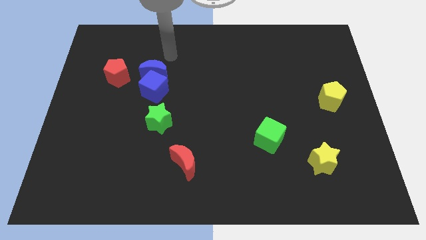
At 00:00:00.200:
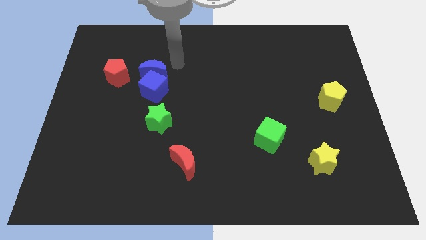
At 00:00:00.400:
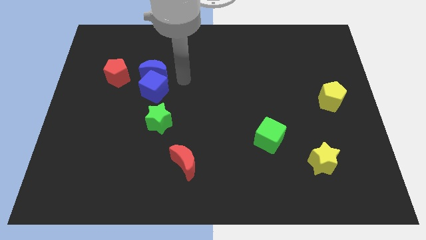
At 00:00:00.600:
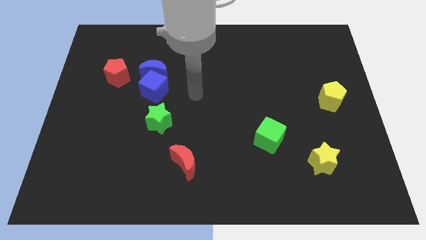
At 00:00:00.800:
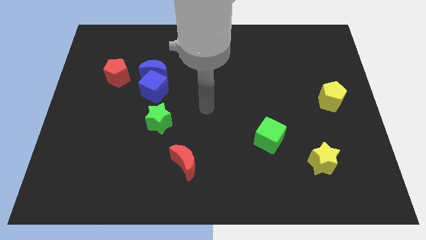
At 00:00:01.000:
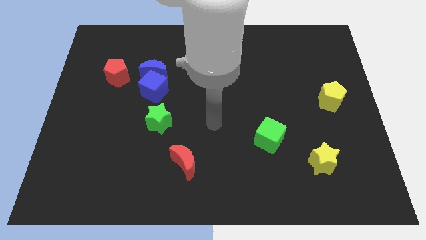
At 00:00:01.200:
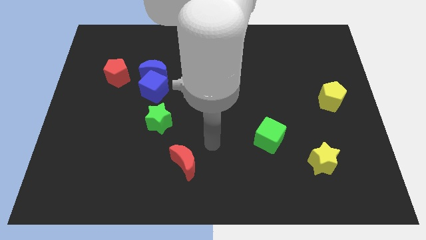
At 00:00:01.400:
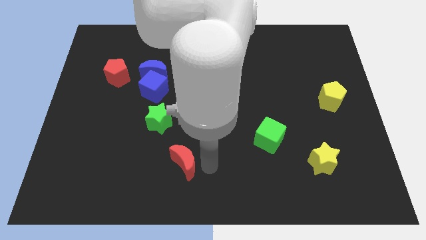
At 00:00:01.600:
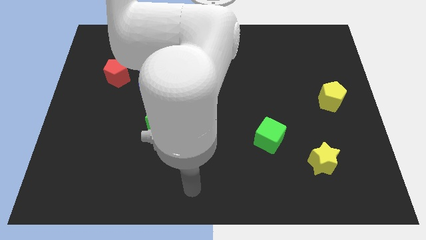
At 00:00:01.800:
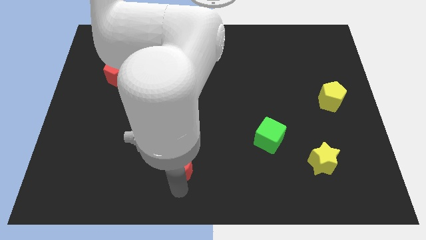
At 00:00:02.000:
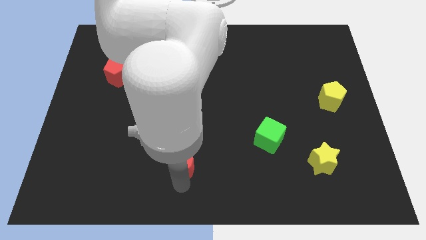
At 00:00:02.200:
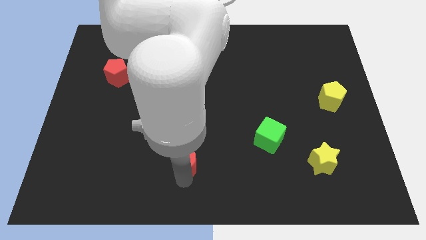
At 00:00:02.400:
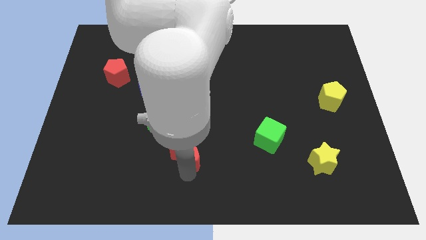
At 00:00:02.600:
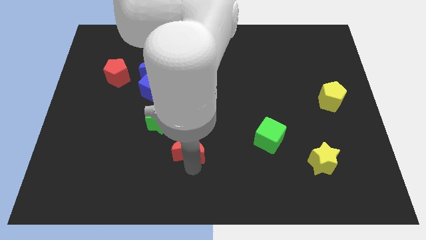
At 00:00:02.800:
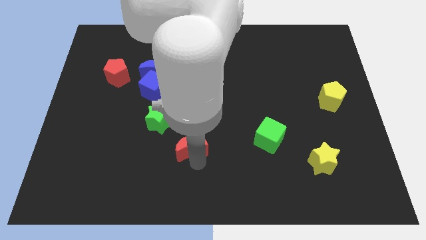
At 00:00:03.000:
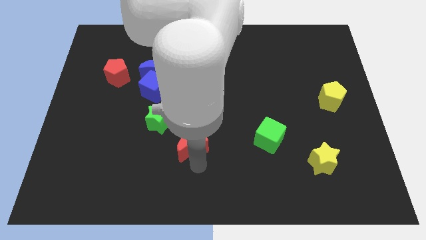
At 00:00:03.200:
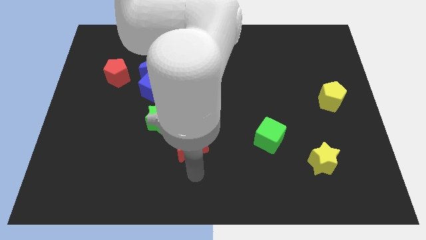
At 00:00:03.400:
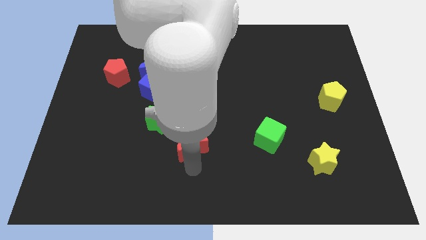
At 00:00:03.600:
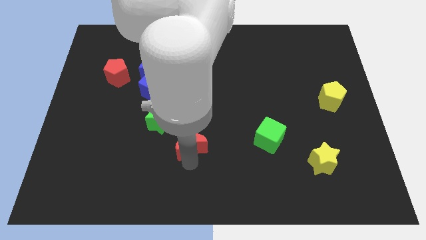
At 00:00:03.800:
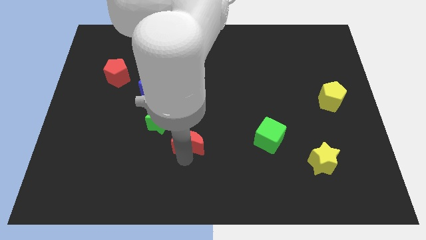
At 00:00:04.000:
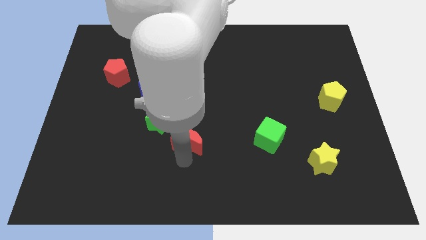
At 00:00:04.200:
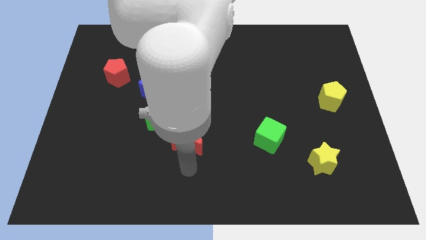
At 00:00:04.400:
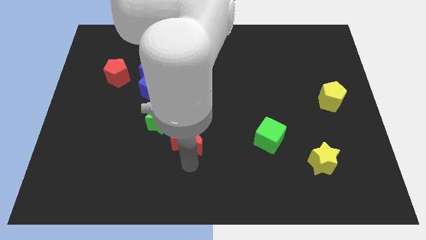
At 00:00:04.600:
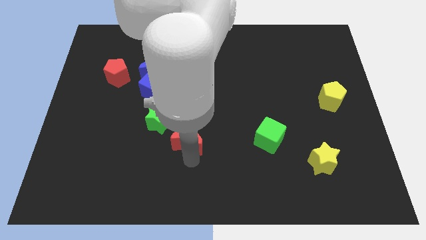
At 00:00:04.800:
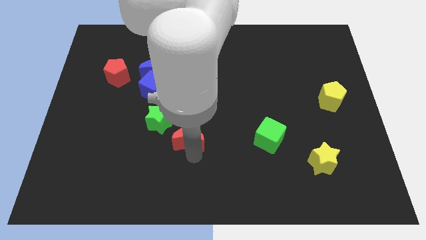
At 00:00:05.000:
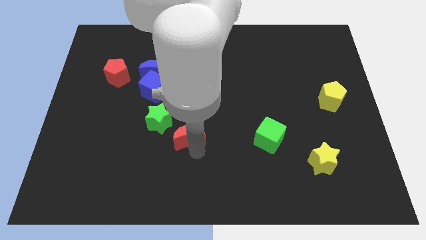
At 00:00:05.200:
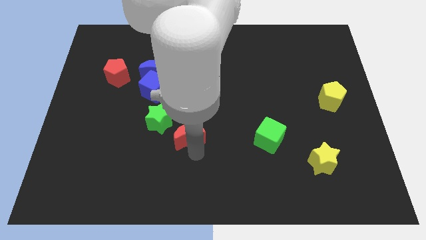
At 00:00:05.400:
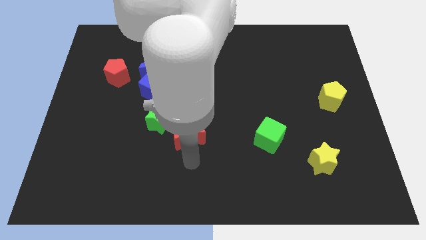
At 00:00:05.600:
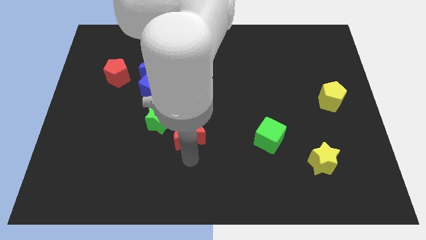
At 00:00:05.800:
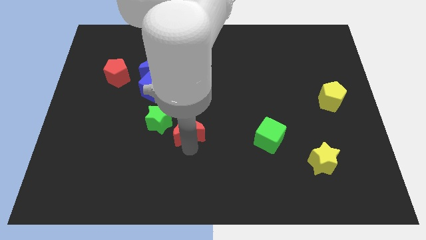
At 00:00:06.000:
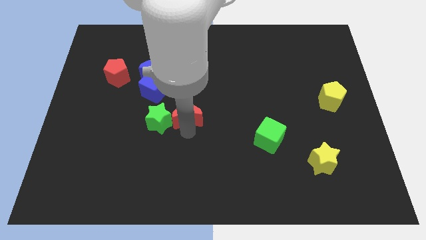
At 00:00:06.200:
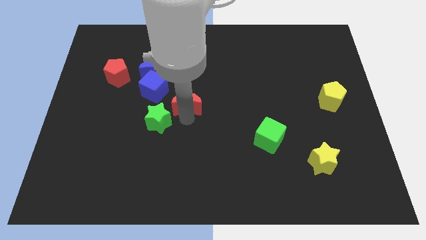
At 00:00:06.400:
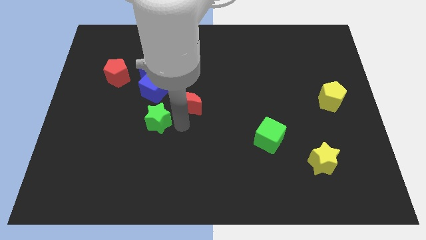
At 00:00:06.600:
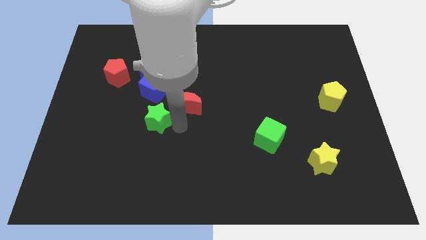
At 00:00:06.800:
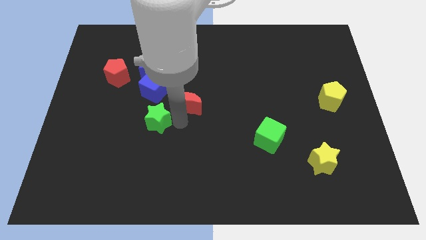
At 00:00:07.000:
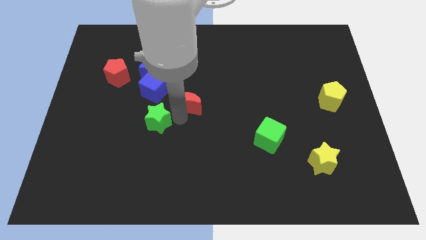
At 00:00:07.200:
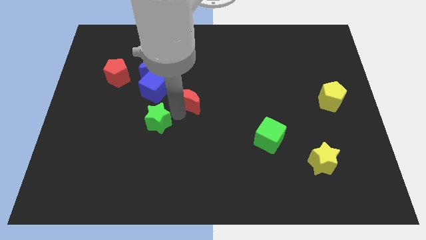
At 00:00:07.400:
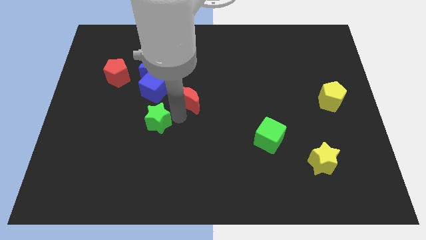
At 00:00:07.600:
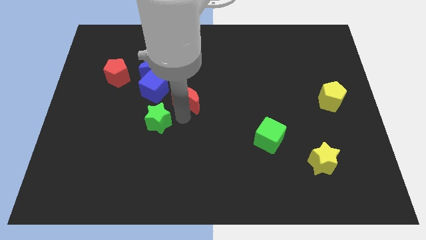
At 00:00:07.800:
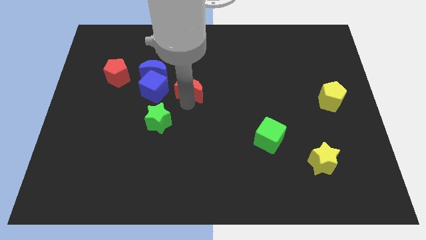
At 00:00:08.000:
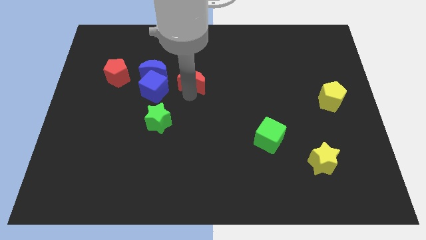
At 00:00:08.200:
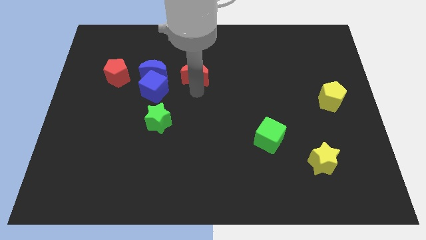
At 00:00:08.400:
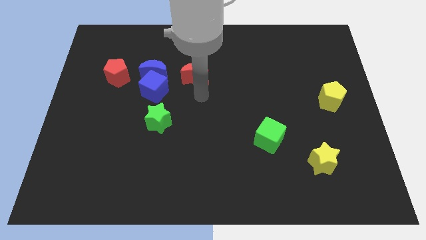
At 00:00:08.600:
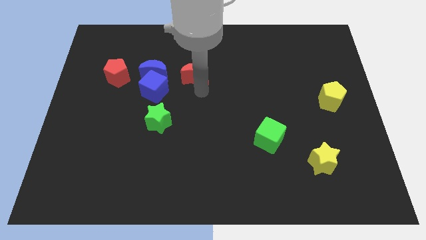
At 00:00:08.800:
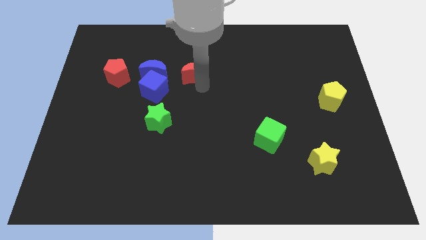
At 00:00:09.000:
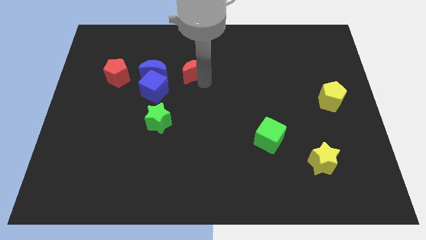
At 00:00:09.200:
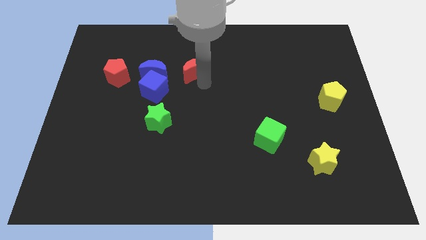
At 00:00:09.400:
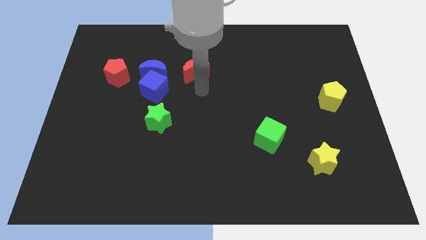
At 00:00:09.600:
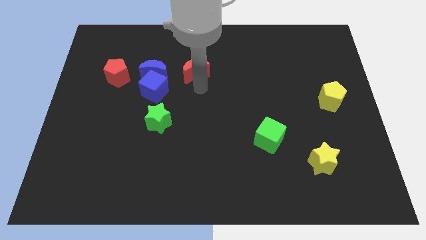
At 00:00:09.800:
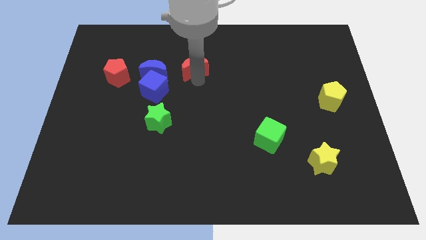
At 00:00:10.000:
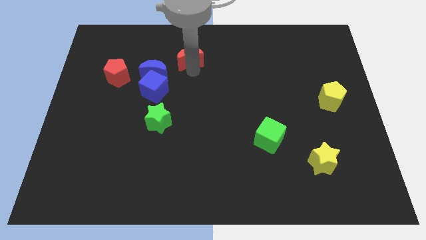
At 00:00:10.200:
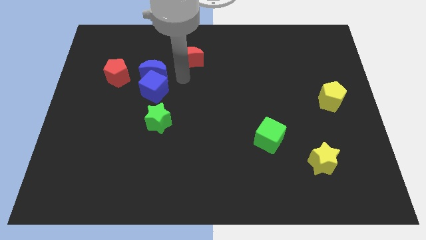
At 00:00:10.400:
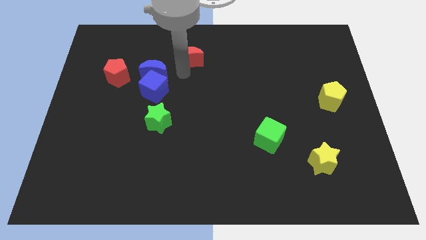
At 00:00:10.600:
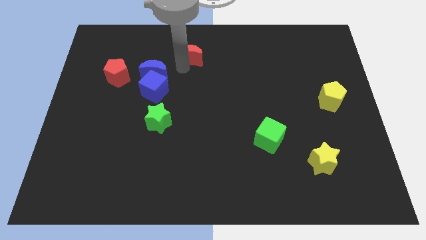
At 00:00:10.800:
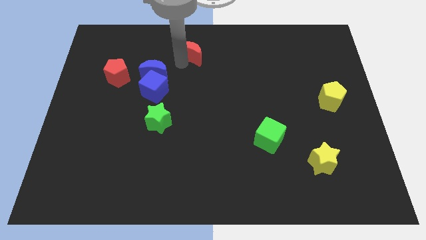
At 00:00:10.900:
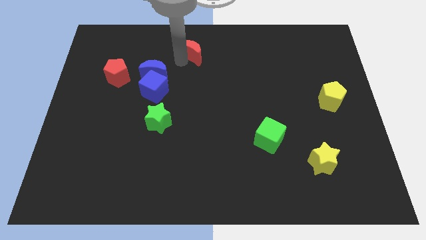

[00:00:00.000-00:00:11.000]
push the red moon to the towards your base

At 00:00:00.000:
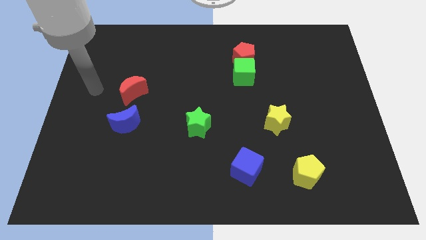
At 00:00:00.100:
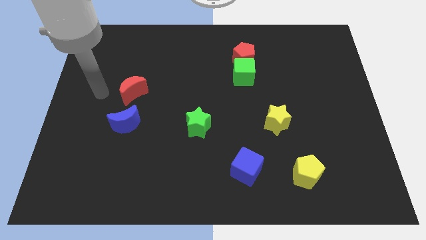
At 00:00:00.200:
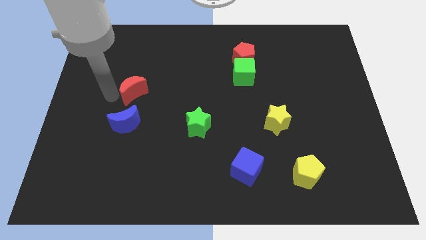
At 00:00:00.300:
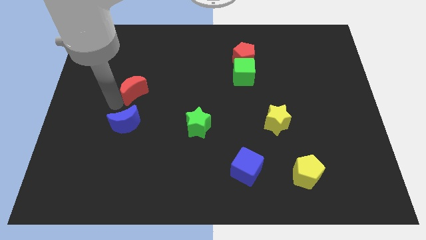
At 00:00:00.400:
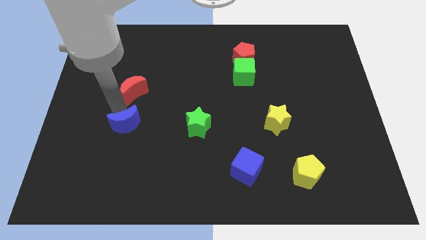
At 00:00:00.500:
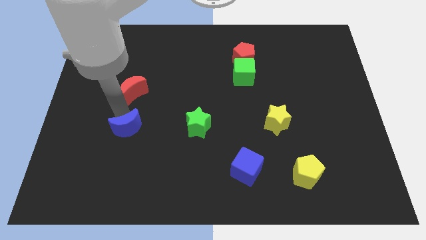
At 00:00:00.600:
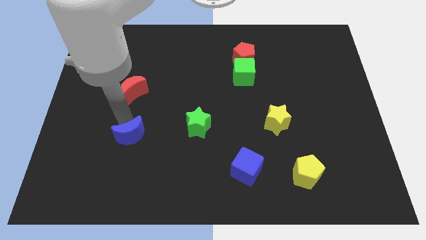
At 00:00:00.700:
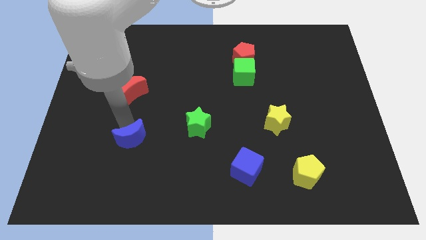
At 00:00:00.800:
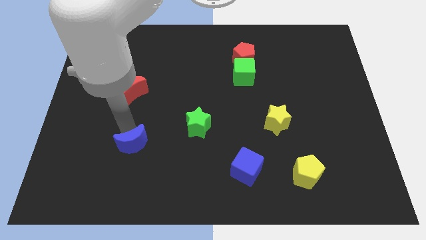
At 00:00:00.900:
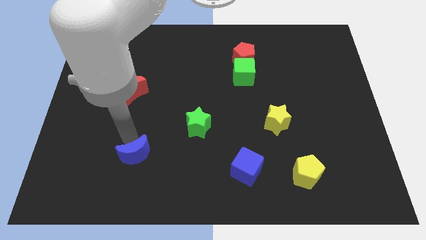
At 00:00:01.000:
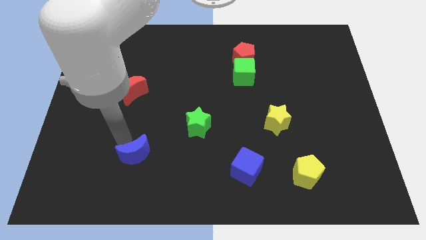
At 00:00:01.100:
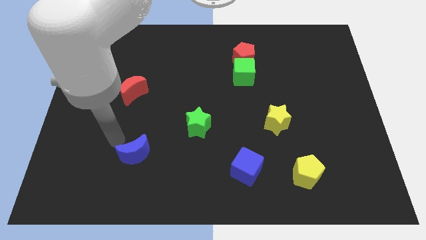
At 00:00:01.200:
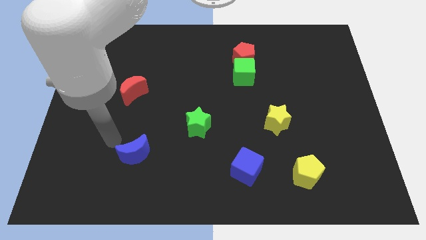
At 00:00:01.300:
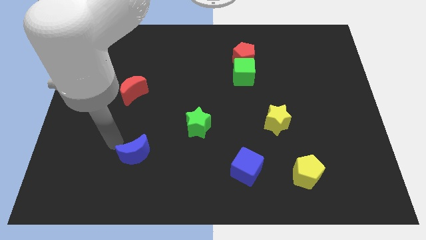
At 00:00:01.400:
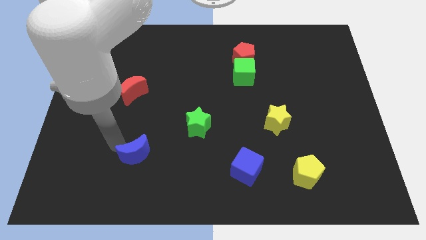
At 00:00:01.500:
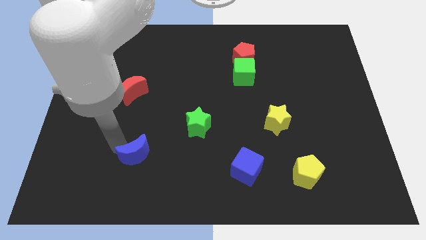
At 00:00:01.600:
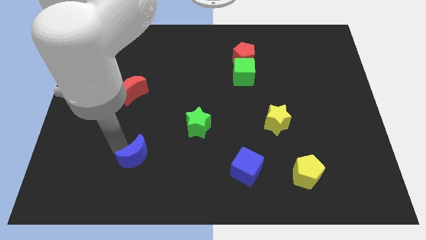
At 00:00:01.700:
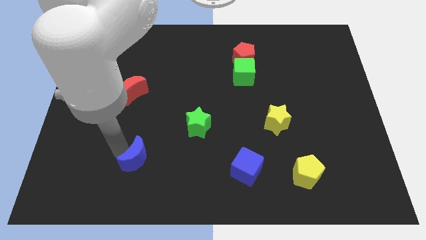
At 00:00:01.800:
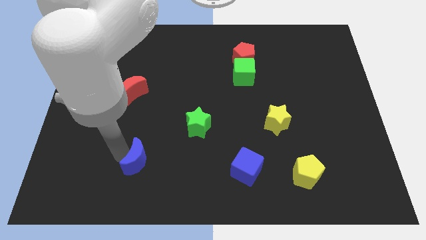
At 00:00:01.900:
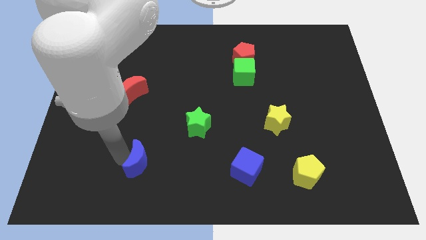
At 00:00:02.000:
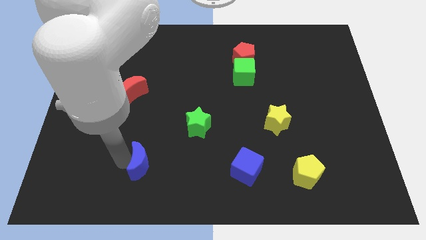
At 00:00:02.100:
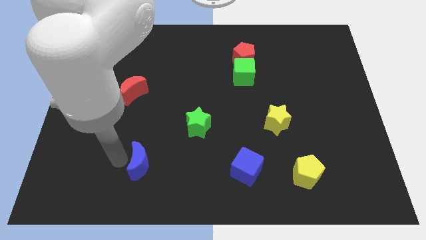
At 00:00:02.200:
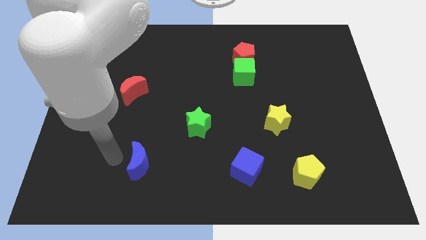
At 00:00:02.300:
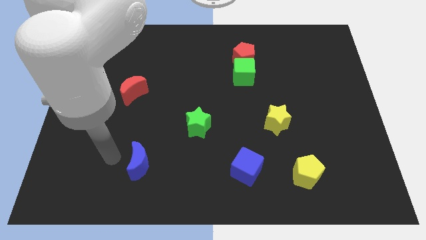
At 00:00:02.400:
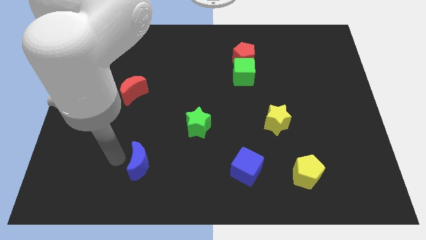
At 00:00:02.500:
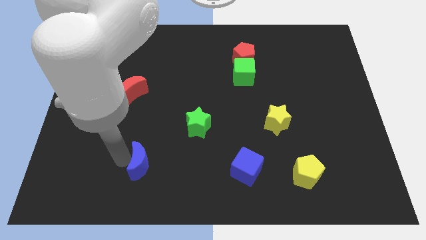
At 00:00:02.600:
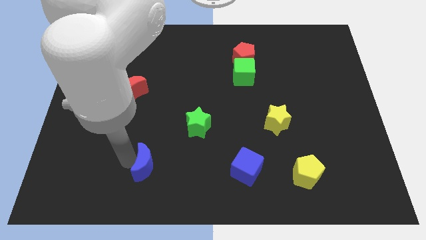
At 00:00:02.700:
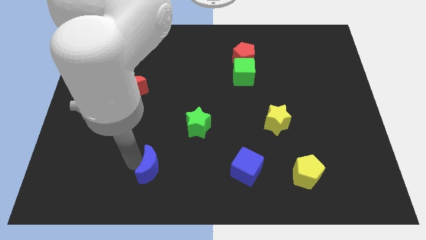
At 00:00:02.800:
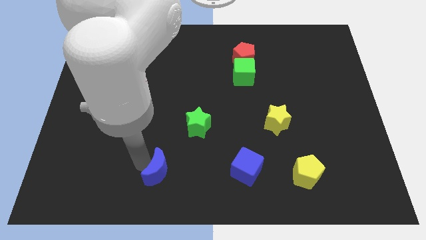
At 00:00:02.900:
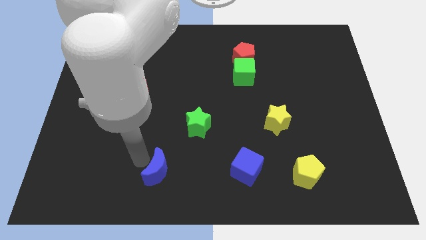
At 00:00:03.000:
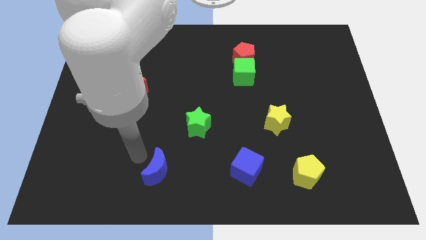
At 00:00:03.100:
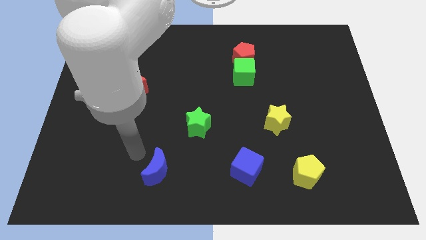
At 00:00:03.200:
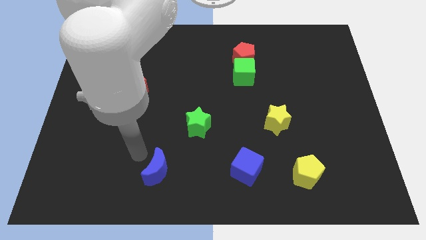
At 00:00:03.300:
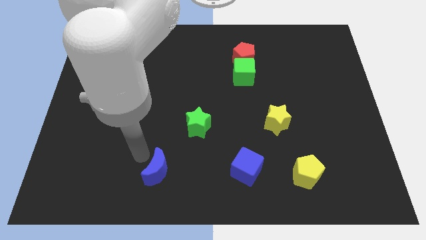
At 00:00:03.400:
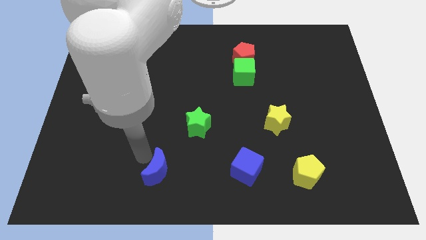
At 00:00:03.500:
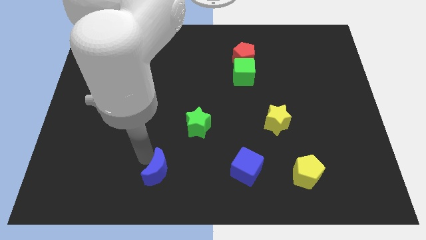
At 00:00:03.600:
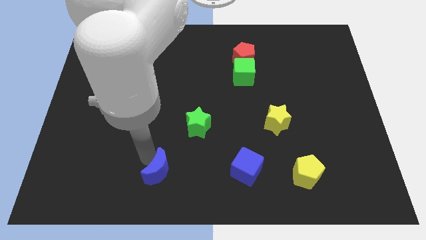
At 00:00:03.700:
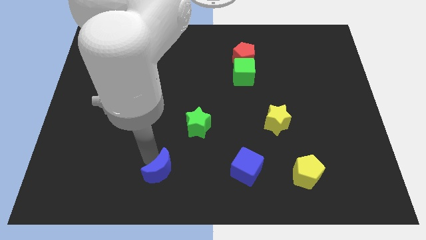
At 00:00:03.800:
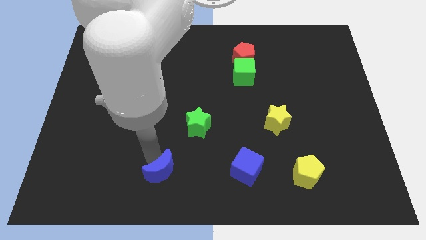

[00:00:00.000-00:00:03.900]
slide the blue moon to the bottom side
